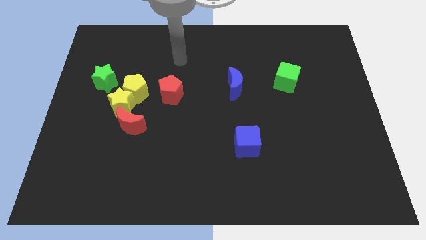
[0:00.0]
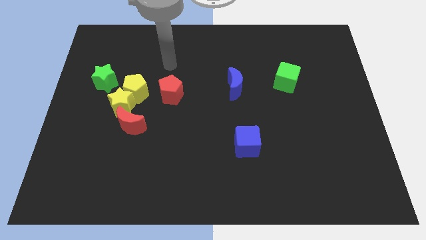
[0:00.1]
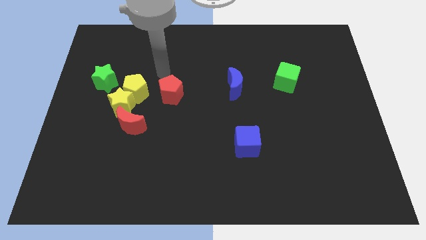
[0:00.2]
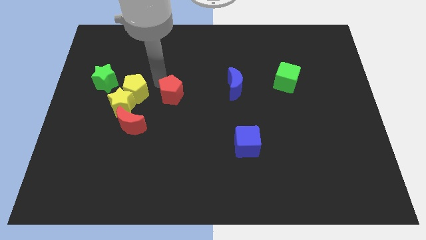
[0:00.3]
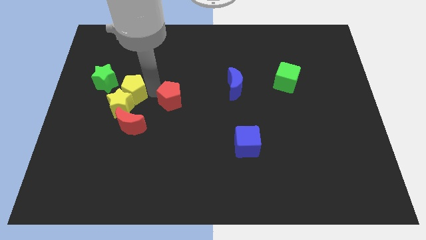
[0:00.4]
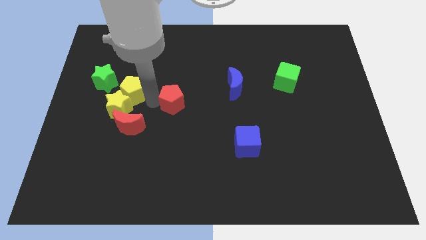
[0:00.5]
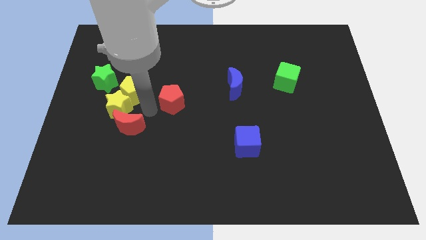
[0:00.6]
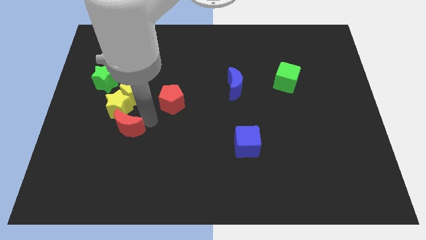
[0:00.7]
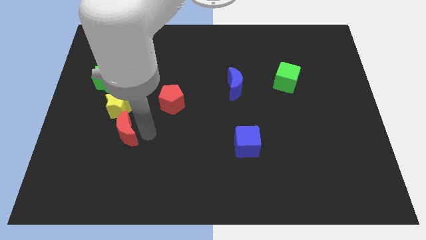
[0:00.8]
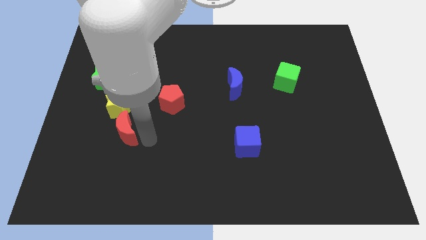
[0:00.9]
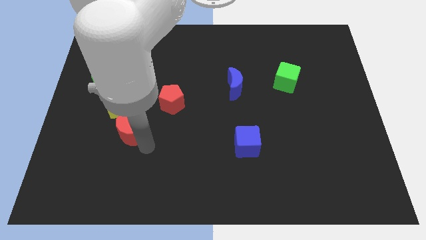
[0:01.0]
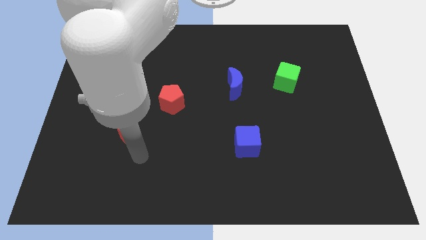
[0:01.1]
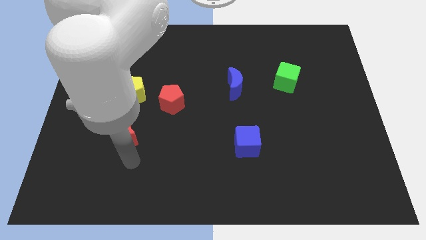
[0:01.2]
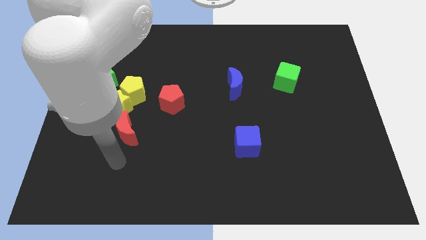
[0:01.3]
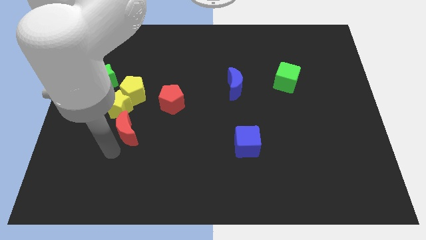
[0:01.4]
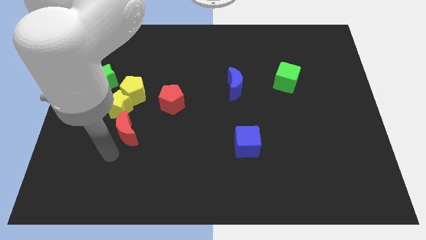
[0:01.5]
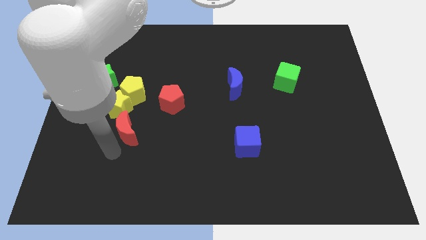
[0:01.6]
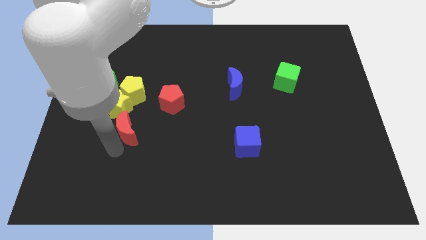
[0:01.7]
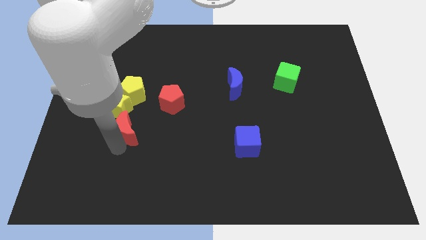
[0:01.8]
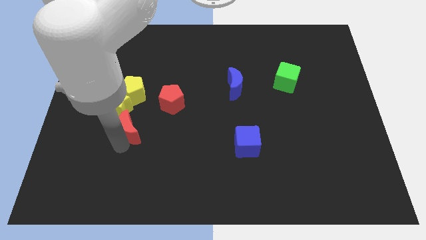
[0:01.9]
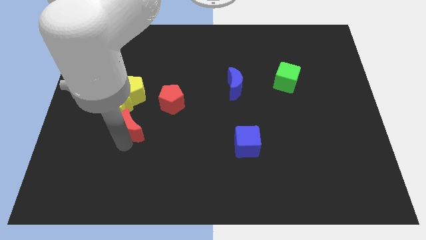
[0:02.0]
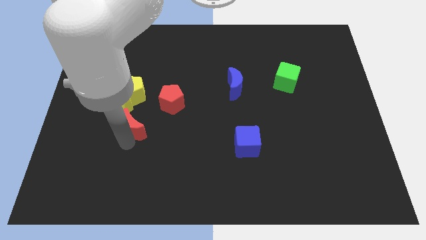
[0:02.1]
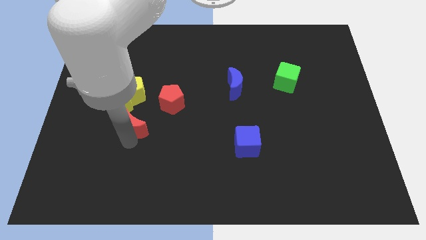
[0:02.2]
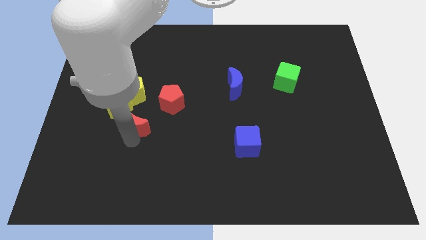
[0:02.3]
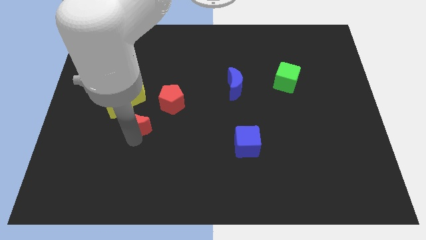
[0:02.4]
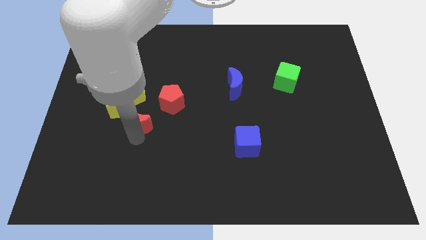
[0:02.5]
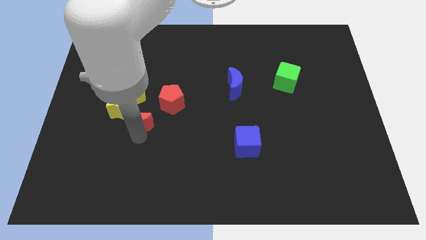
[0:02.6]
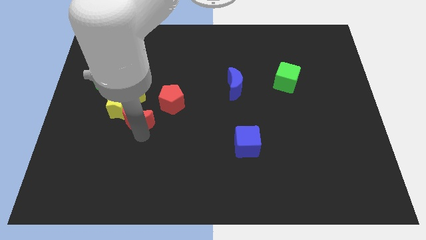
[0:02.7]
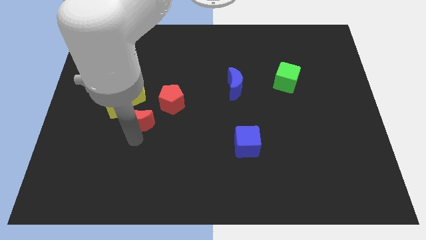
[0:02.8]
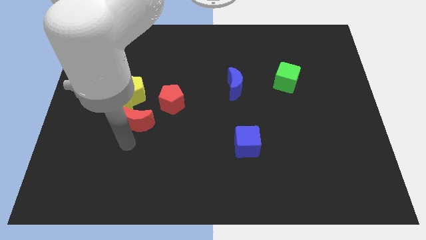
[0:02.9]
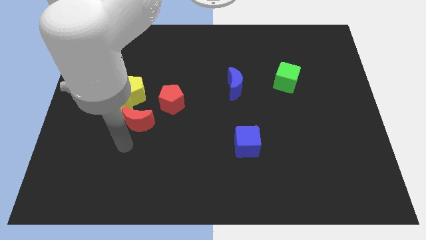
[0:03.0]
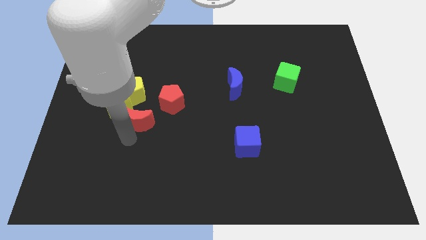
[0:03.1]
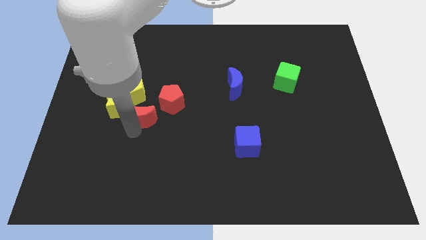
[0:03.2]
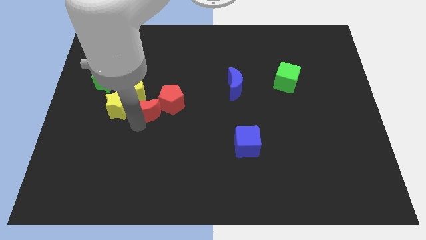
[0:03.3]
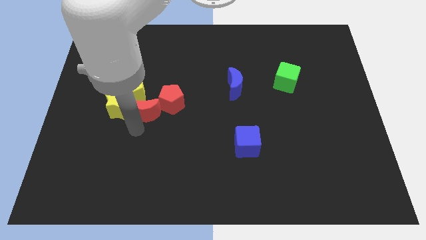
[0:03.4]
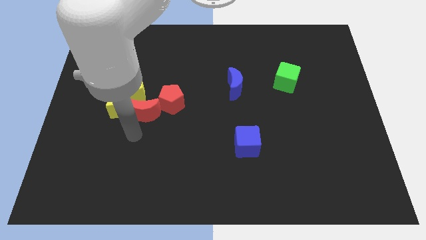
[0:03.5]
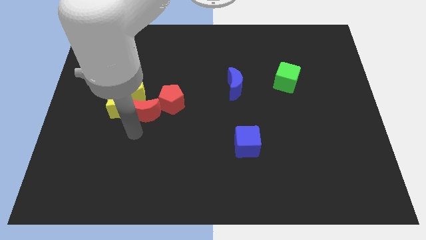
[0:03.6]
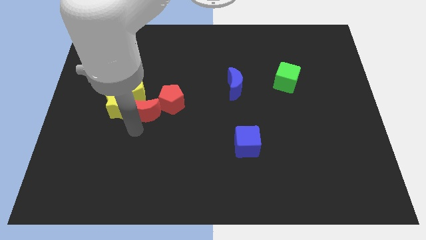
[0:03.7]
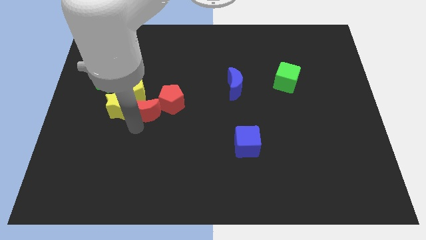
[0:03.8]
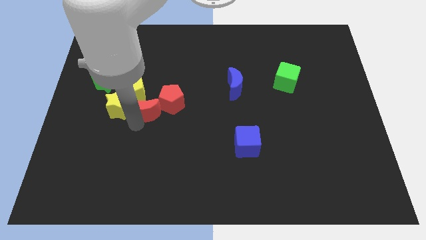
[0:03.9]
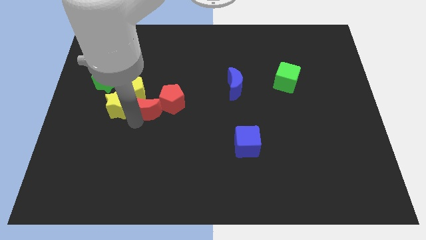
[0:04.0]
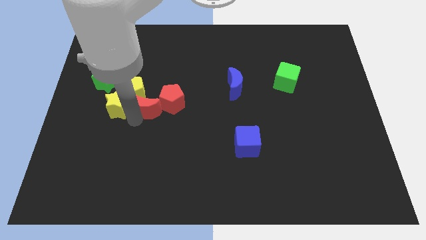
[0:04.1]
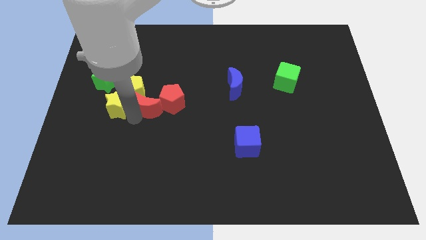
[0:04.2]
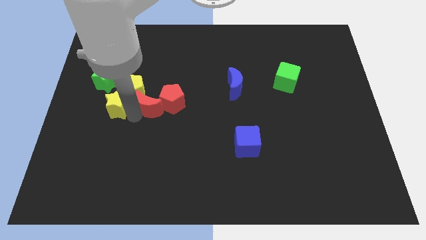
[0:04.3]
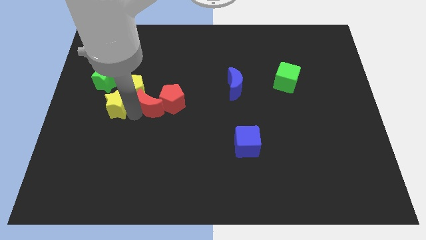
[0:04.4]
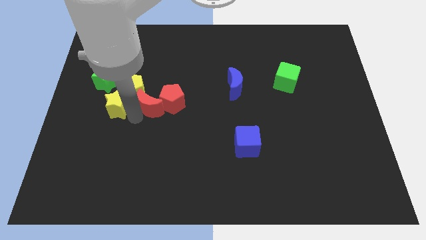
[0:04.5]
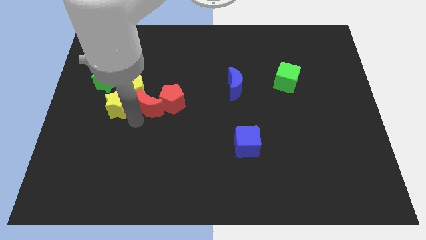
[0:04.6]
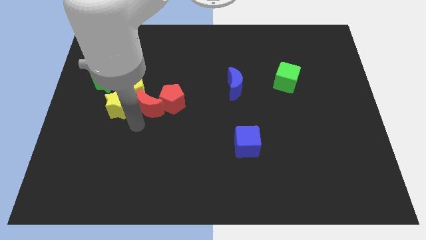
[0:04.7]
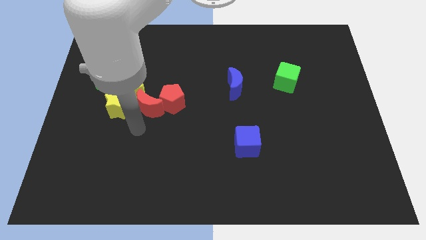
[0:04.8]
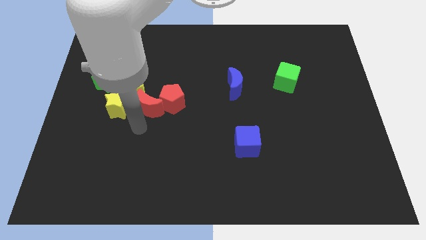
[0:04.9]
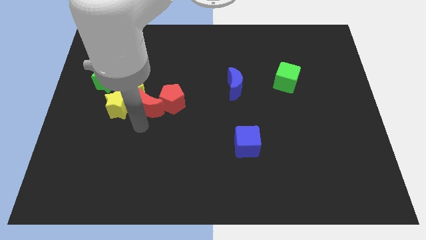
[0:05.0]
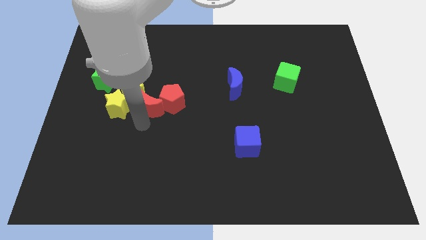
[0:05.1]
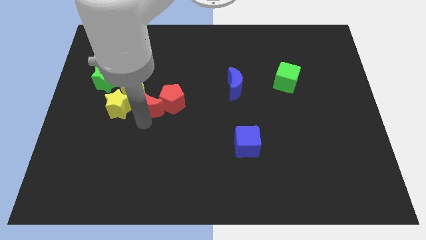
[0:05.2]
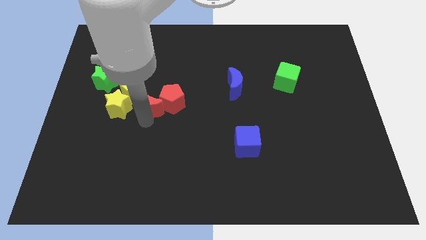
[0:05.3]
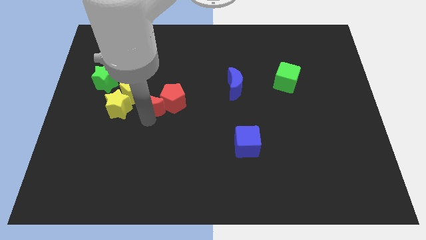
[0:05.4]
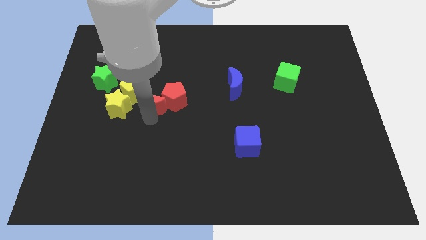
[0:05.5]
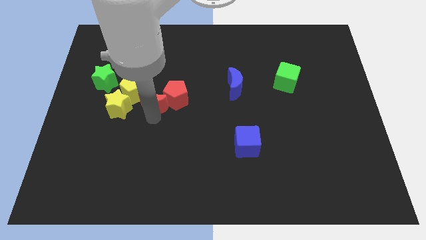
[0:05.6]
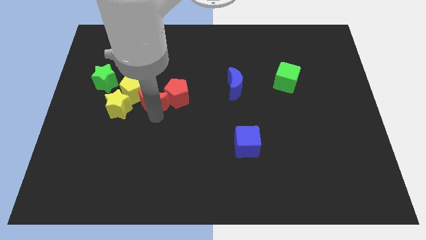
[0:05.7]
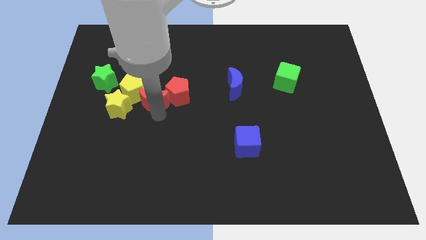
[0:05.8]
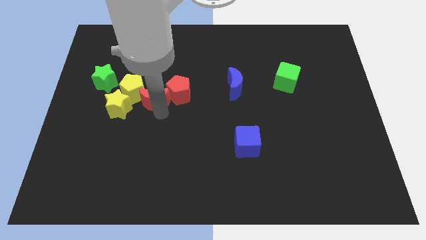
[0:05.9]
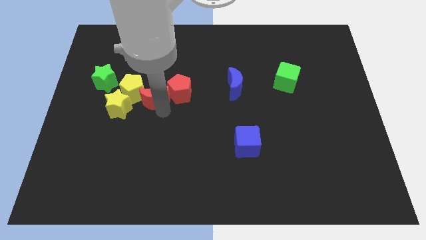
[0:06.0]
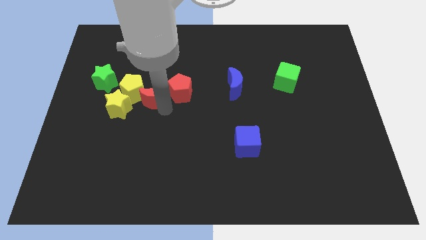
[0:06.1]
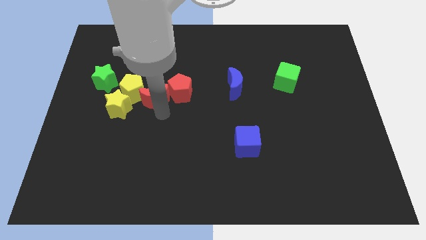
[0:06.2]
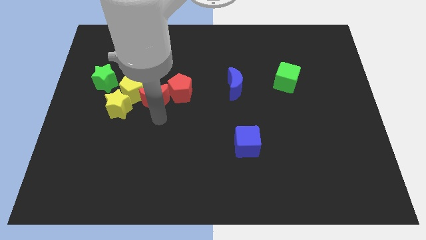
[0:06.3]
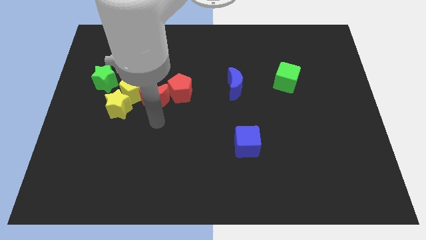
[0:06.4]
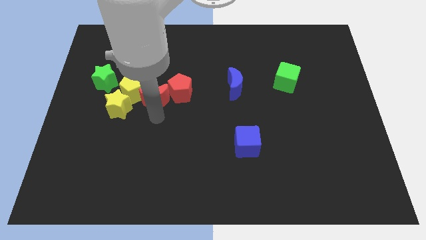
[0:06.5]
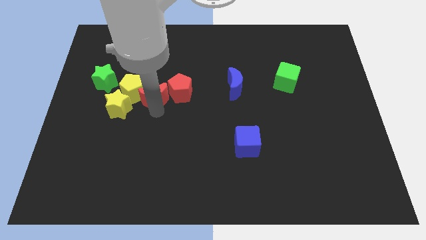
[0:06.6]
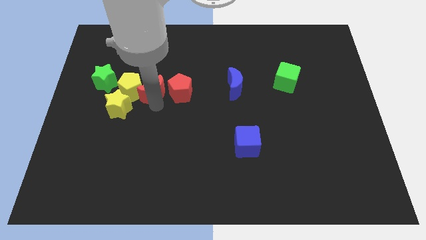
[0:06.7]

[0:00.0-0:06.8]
slightly move the red moon up

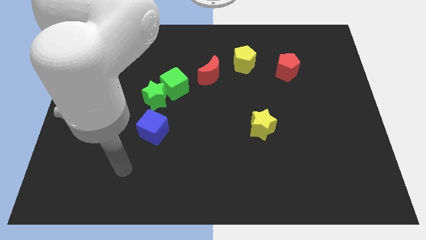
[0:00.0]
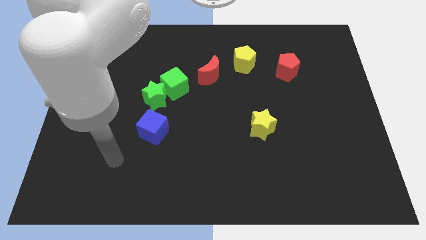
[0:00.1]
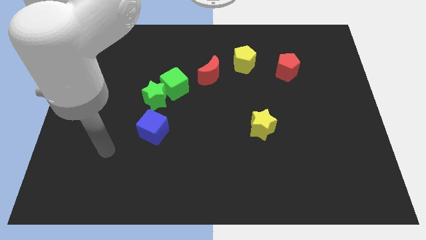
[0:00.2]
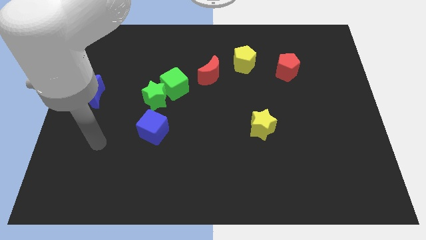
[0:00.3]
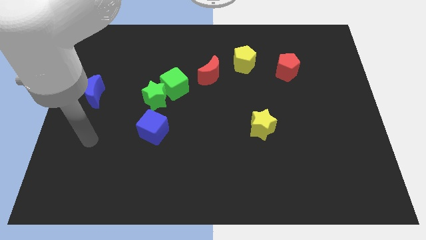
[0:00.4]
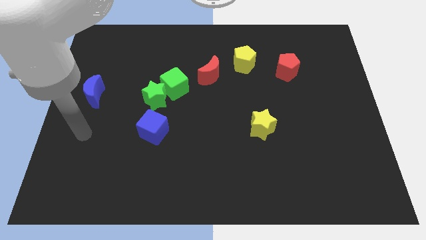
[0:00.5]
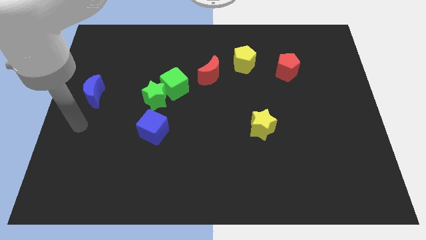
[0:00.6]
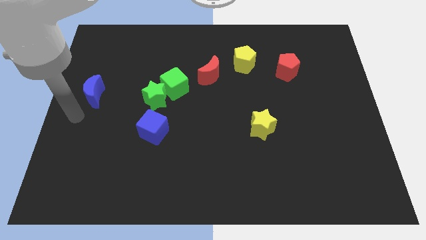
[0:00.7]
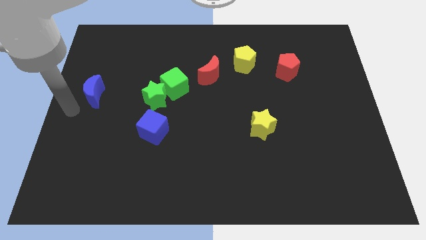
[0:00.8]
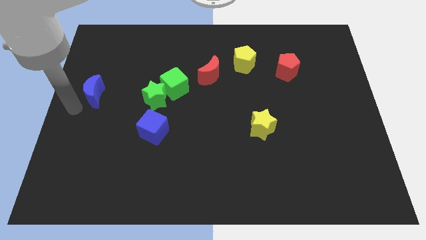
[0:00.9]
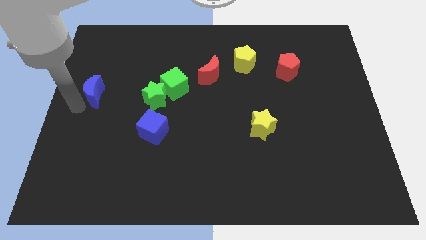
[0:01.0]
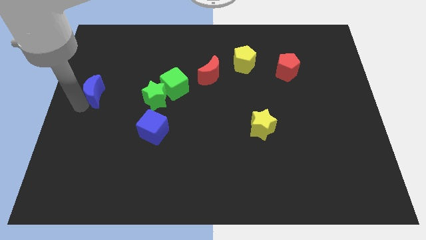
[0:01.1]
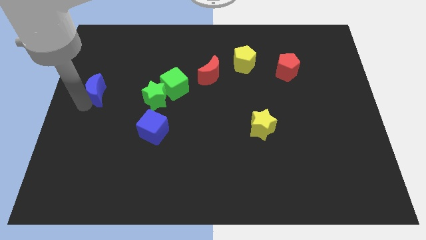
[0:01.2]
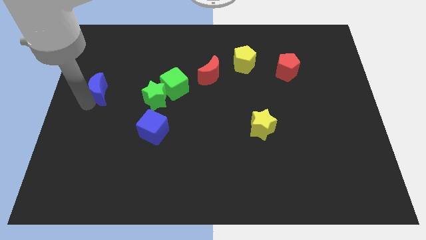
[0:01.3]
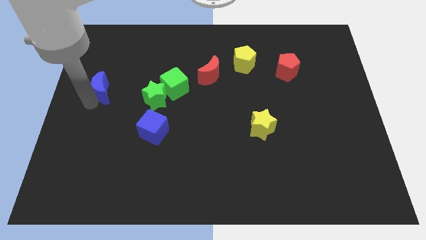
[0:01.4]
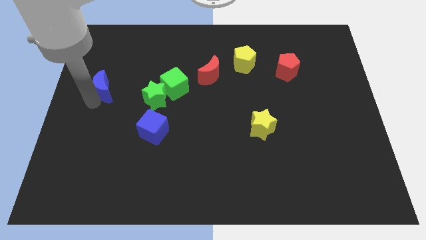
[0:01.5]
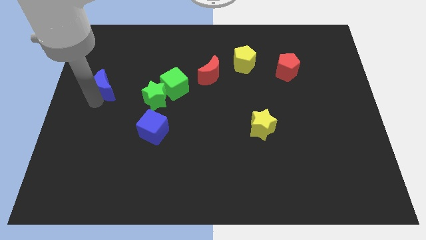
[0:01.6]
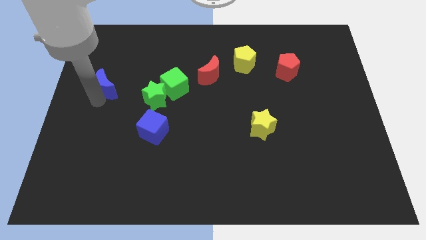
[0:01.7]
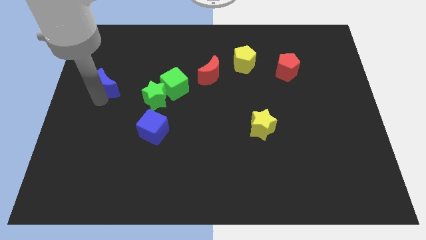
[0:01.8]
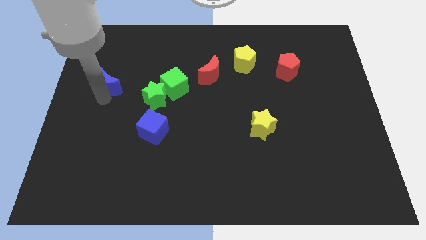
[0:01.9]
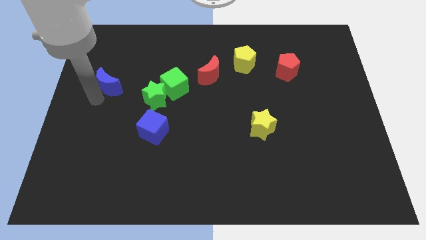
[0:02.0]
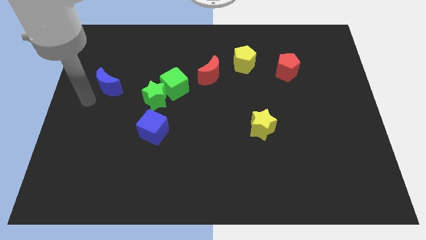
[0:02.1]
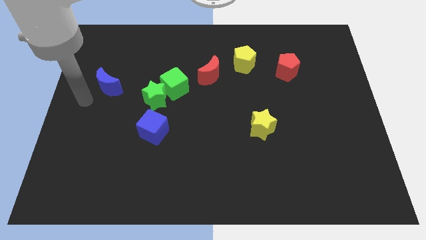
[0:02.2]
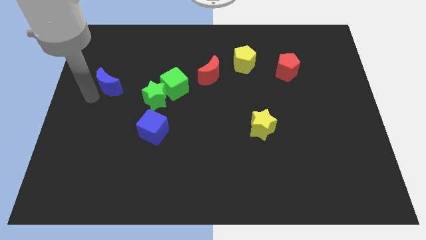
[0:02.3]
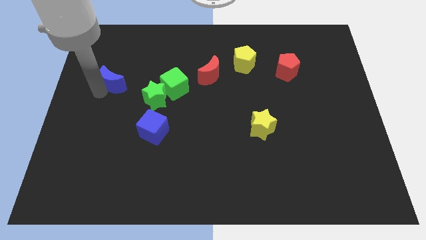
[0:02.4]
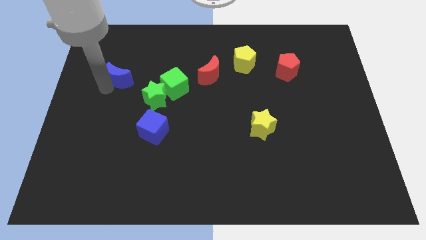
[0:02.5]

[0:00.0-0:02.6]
move the blue moon upwards and right diagonally a little bit
